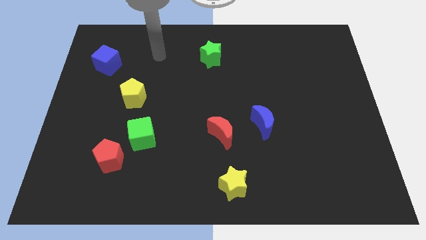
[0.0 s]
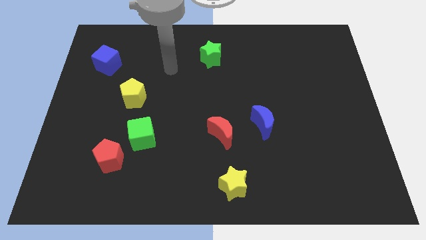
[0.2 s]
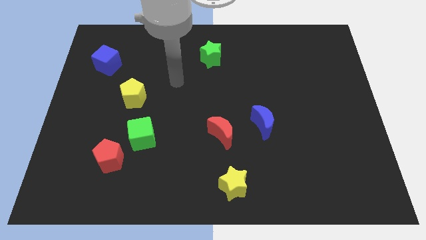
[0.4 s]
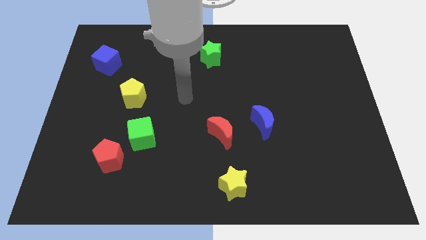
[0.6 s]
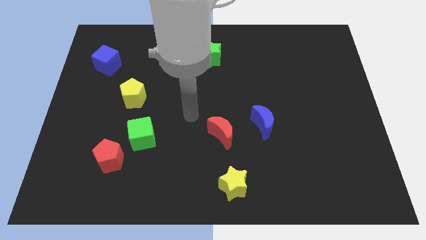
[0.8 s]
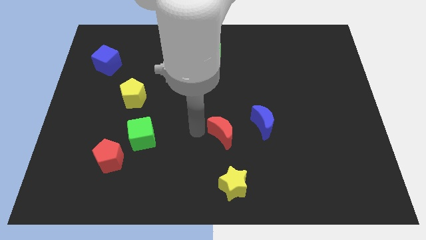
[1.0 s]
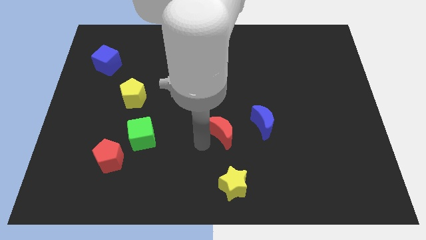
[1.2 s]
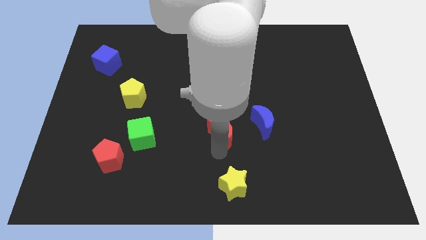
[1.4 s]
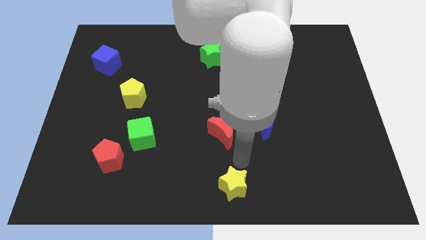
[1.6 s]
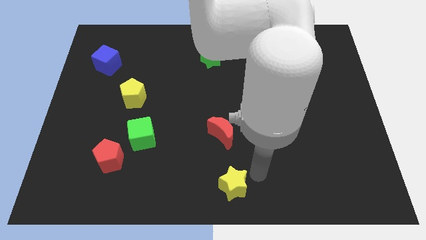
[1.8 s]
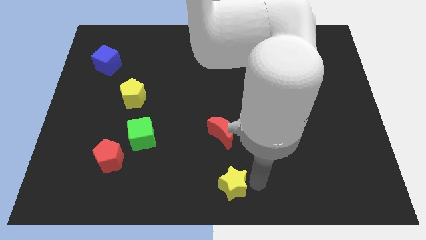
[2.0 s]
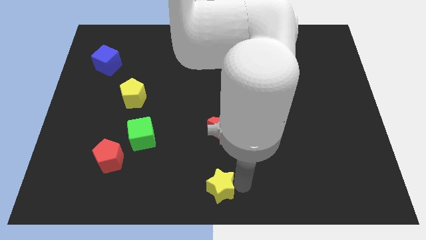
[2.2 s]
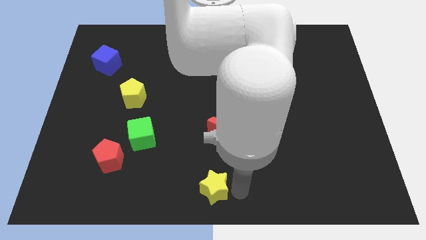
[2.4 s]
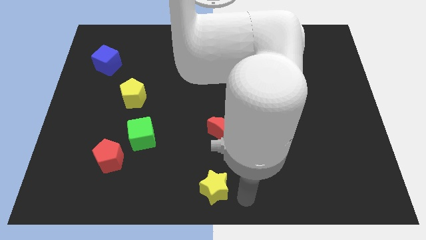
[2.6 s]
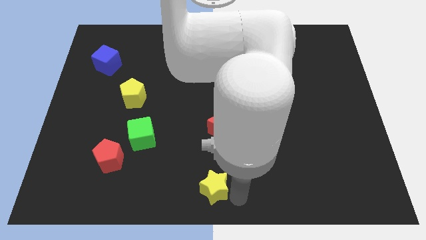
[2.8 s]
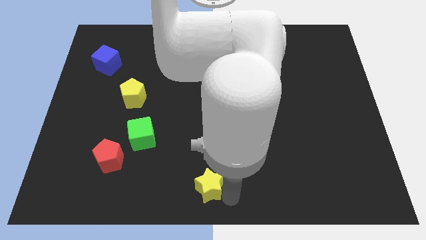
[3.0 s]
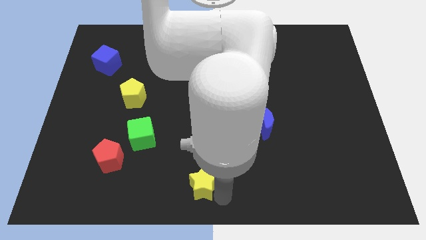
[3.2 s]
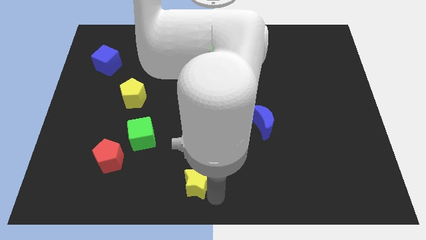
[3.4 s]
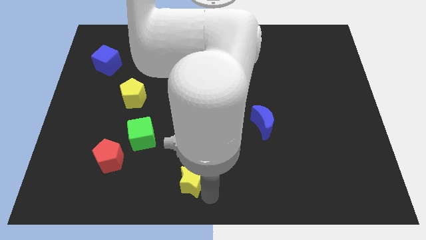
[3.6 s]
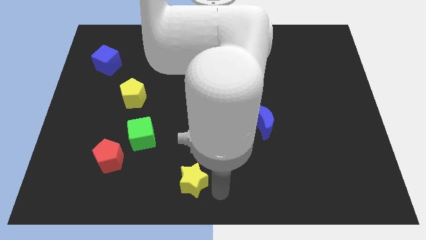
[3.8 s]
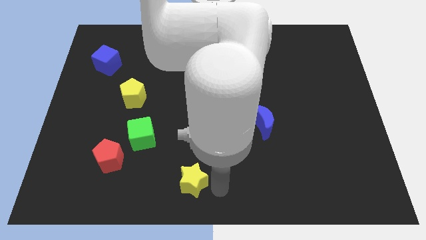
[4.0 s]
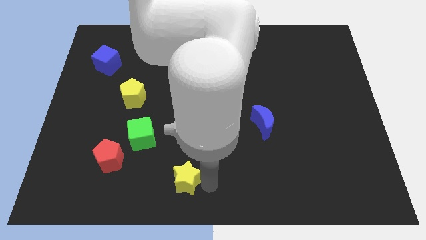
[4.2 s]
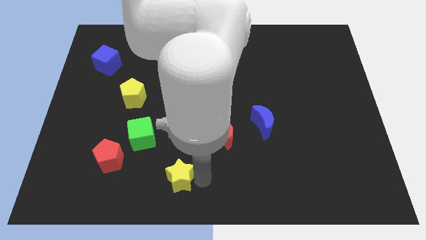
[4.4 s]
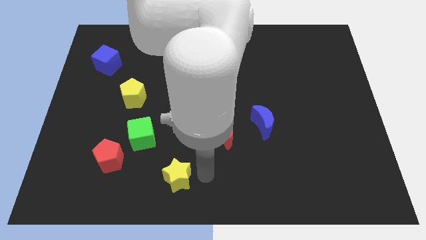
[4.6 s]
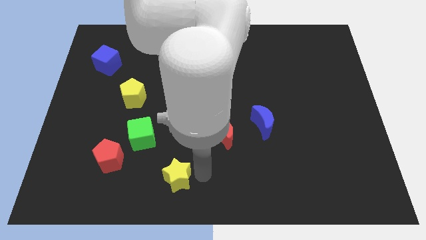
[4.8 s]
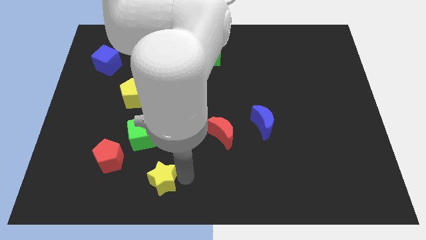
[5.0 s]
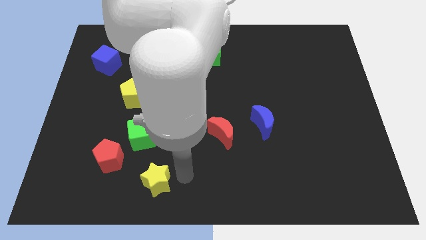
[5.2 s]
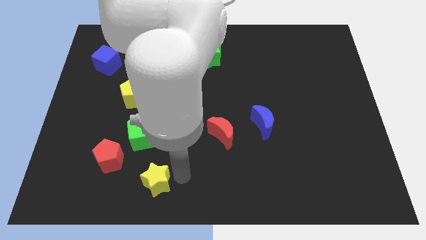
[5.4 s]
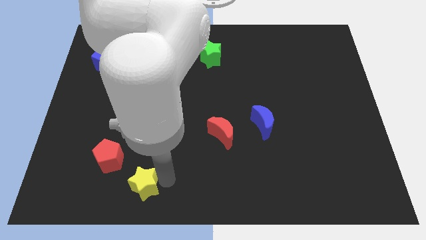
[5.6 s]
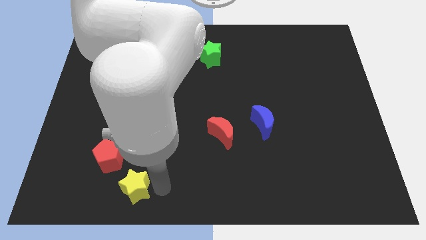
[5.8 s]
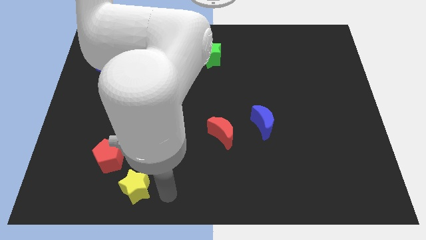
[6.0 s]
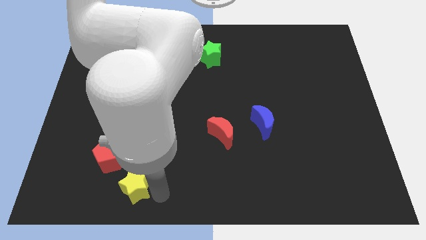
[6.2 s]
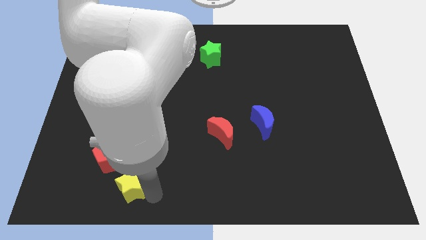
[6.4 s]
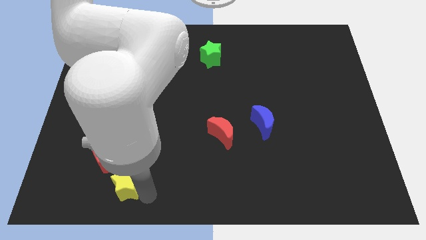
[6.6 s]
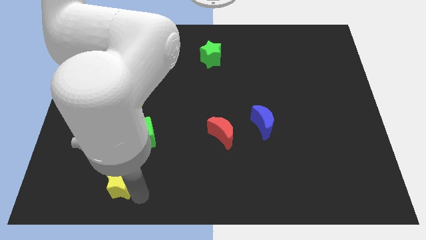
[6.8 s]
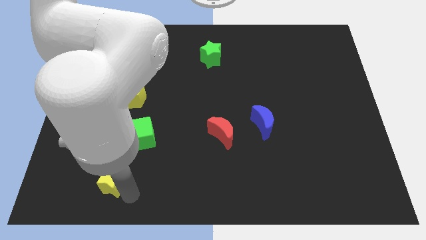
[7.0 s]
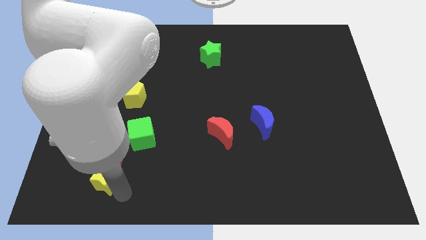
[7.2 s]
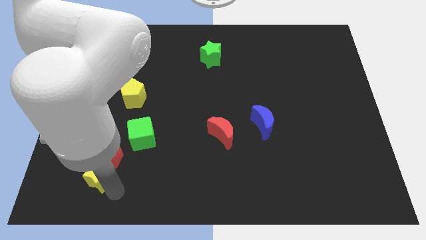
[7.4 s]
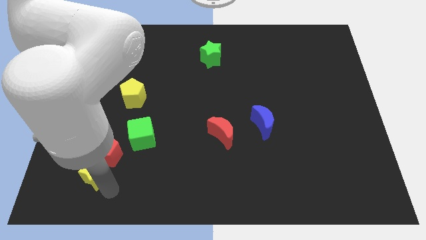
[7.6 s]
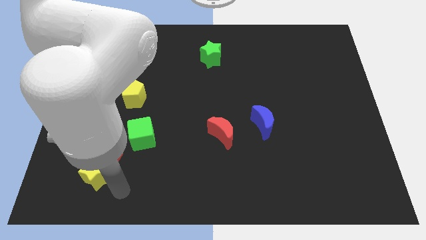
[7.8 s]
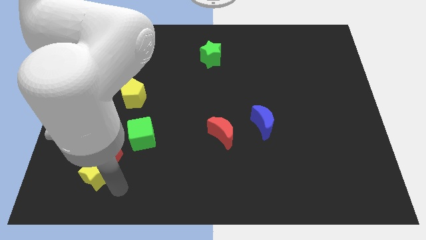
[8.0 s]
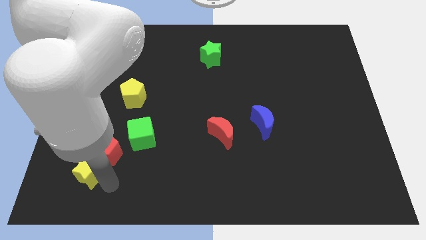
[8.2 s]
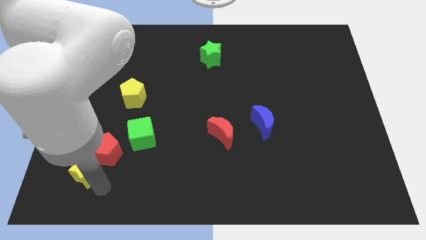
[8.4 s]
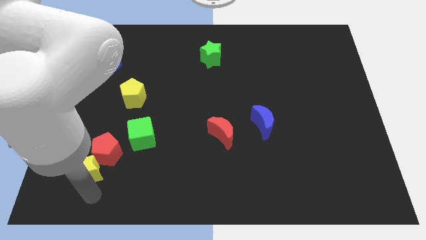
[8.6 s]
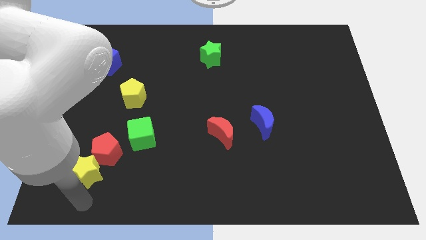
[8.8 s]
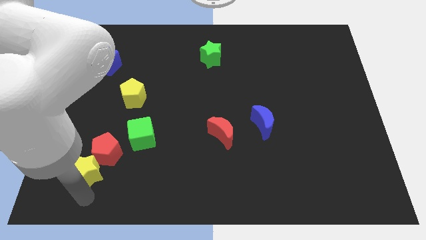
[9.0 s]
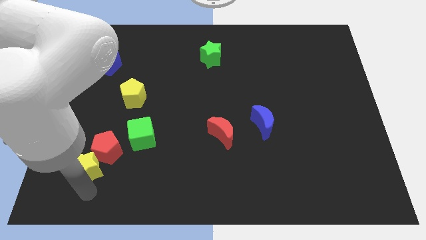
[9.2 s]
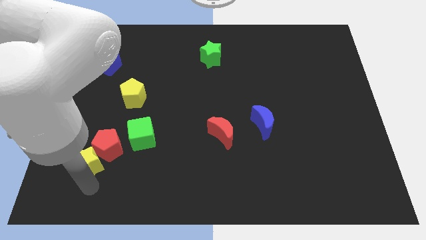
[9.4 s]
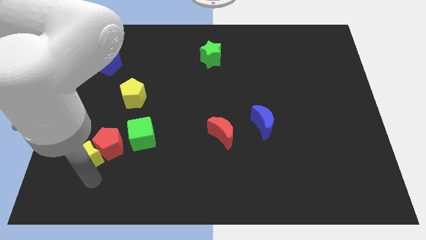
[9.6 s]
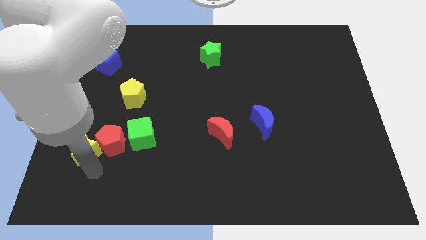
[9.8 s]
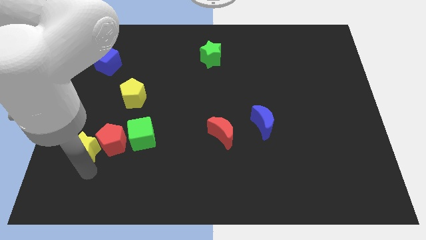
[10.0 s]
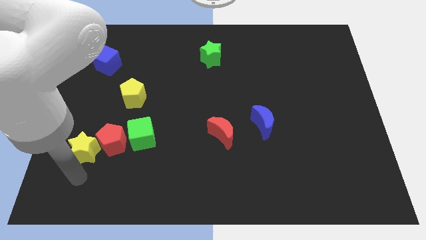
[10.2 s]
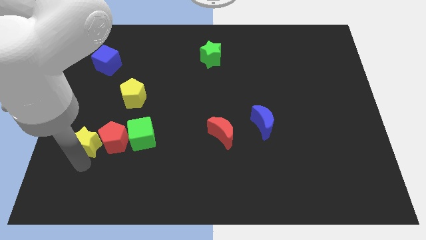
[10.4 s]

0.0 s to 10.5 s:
push the yellow star to the top left of the red pentagon

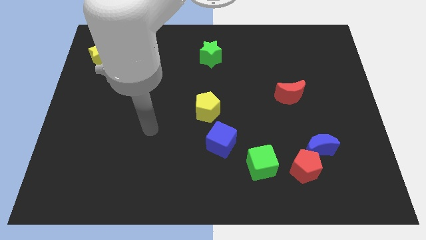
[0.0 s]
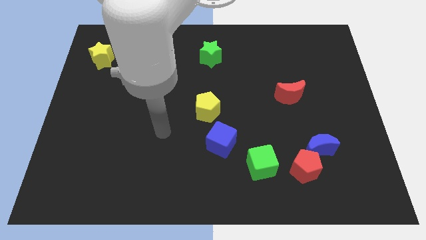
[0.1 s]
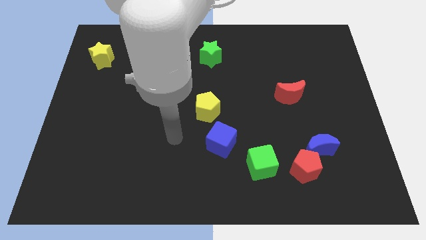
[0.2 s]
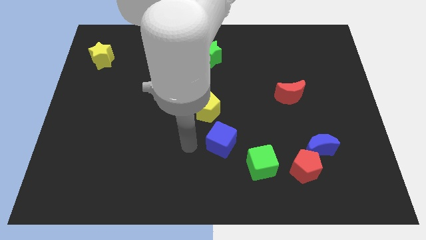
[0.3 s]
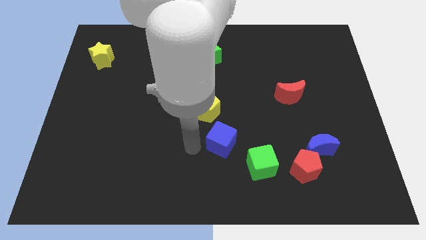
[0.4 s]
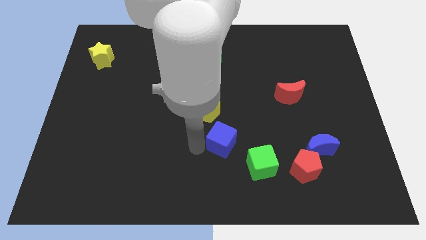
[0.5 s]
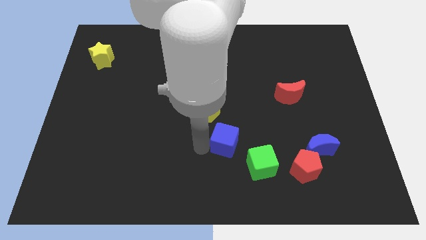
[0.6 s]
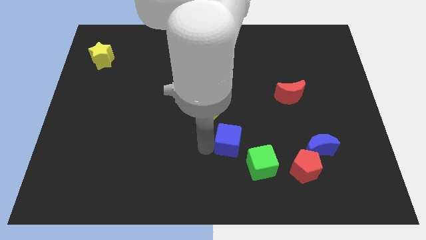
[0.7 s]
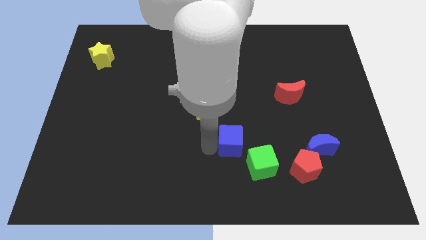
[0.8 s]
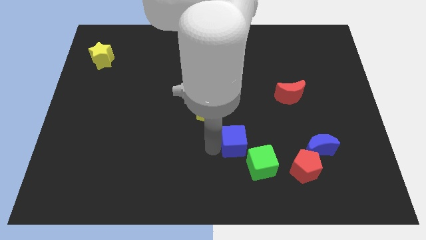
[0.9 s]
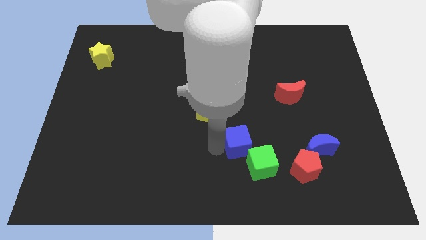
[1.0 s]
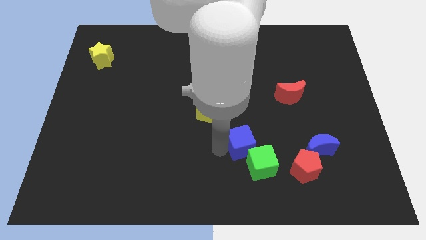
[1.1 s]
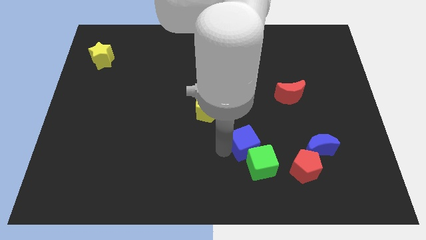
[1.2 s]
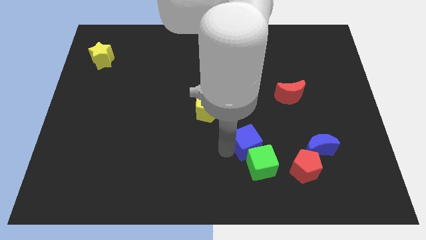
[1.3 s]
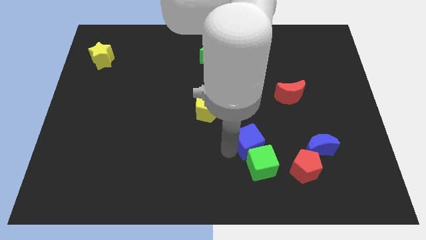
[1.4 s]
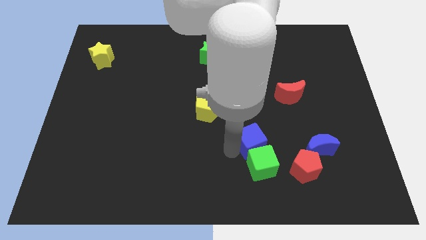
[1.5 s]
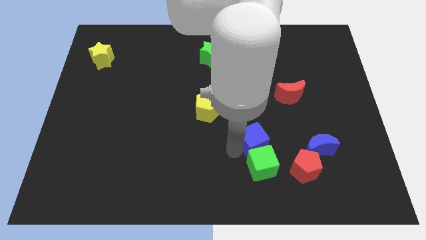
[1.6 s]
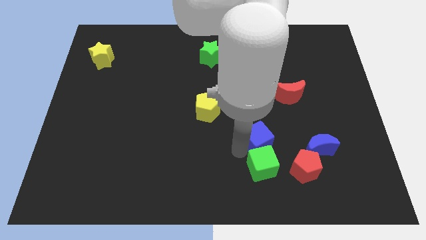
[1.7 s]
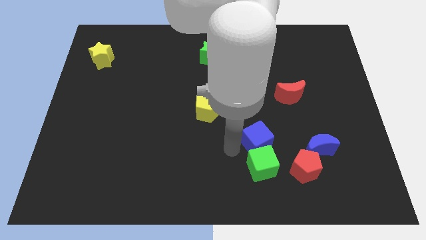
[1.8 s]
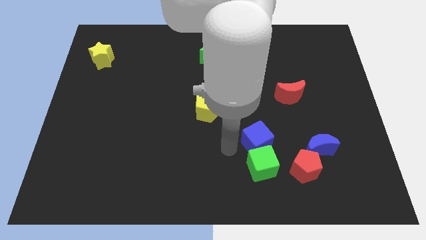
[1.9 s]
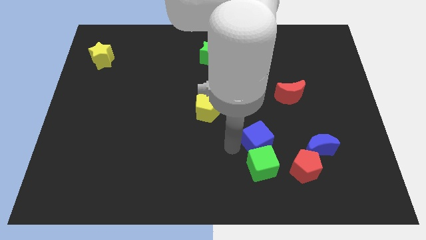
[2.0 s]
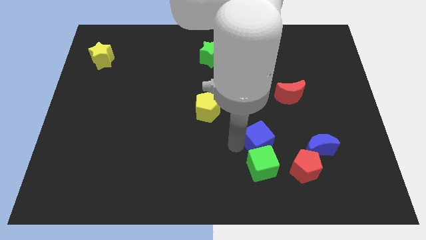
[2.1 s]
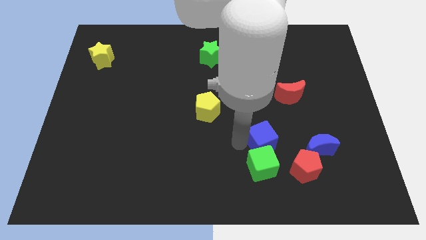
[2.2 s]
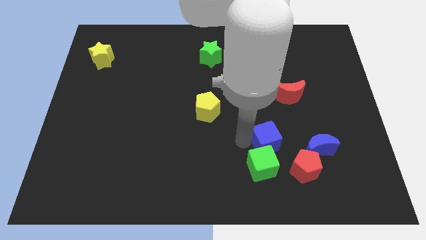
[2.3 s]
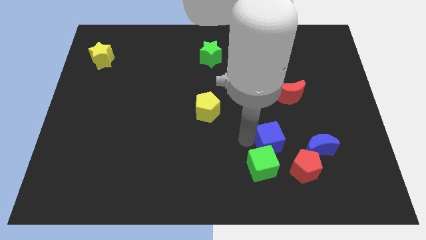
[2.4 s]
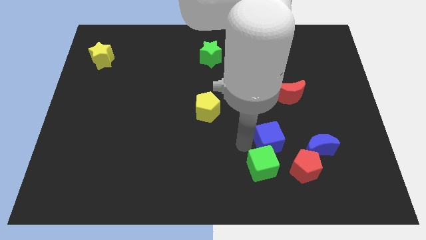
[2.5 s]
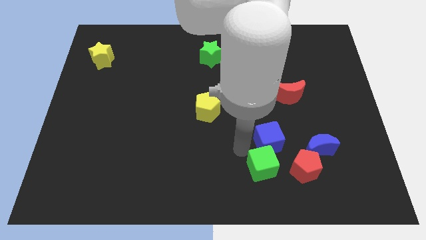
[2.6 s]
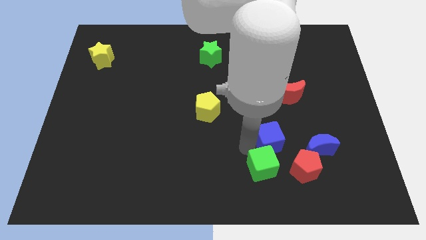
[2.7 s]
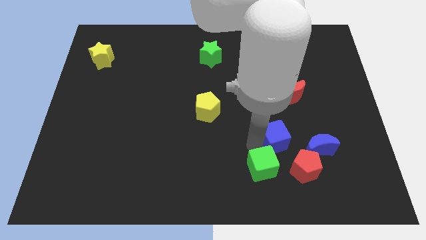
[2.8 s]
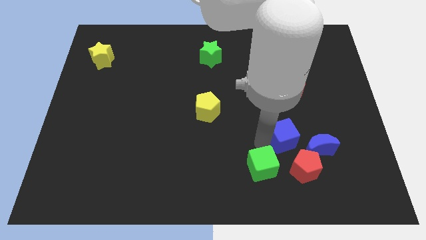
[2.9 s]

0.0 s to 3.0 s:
move the blue cube below the red moon
